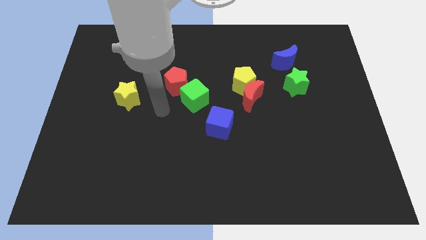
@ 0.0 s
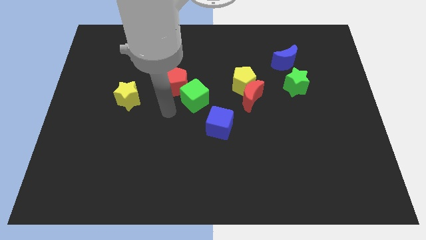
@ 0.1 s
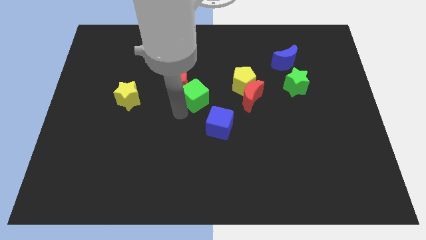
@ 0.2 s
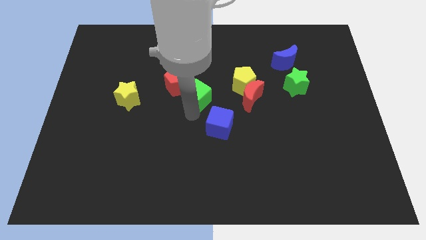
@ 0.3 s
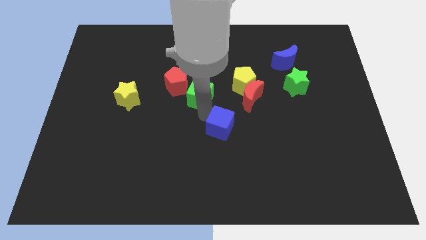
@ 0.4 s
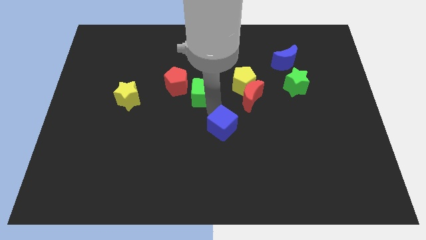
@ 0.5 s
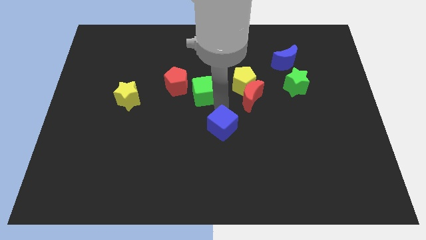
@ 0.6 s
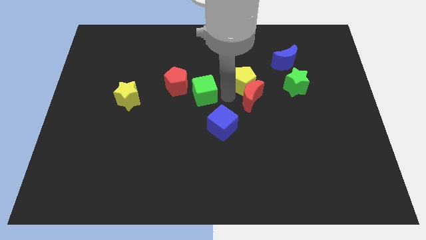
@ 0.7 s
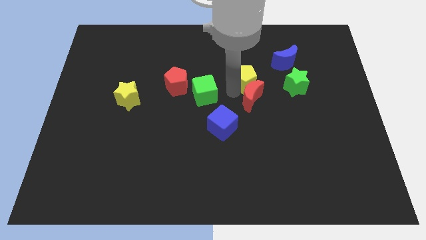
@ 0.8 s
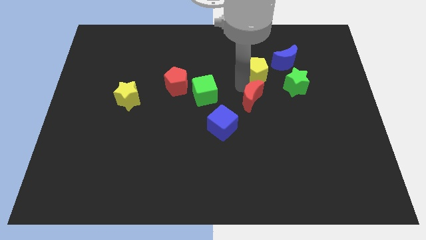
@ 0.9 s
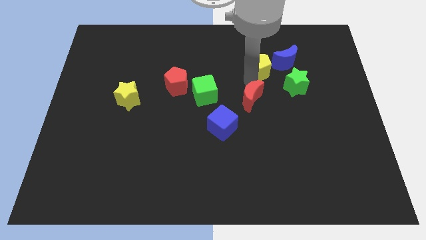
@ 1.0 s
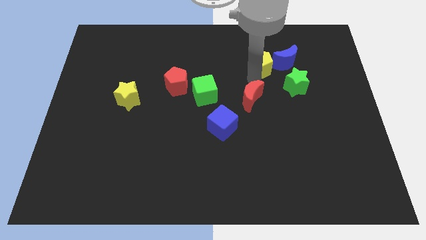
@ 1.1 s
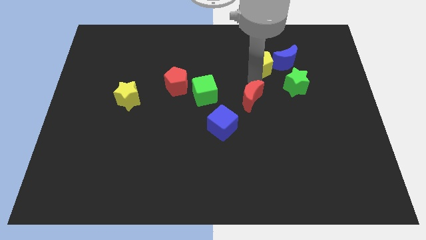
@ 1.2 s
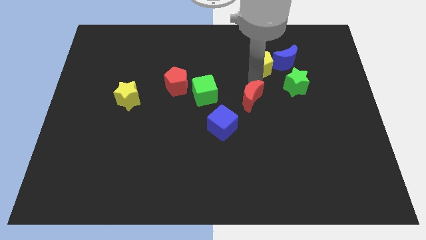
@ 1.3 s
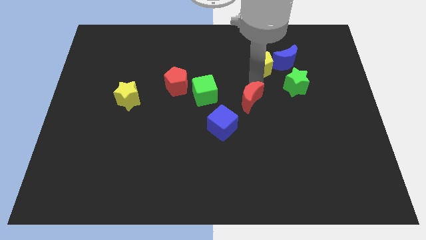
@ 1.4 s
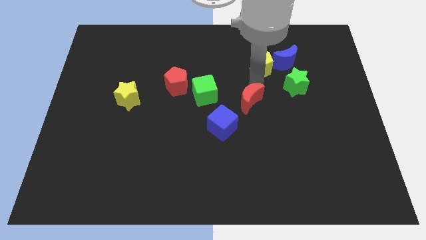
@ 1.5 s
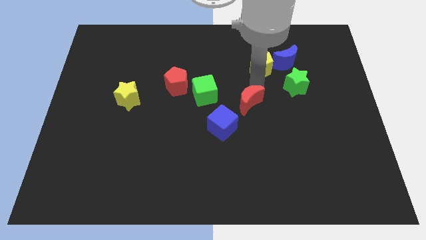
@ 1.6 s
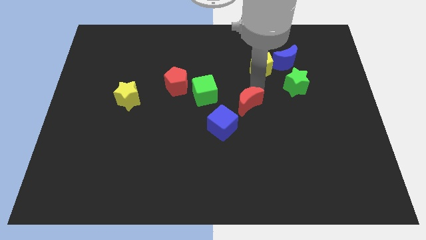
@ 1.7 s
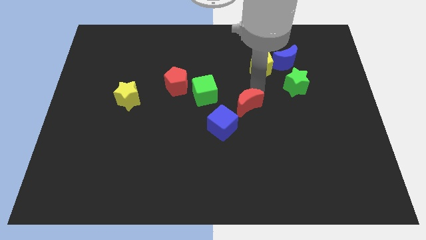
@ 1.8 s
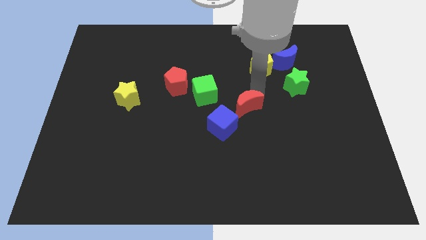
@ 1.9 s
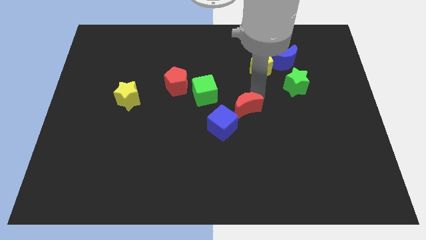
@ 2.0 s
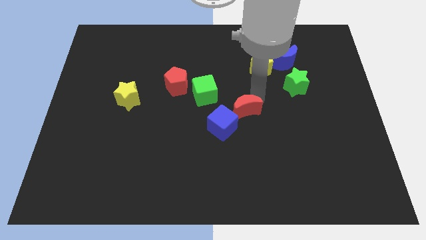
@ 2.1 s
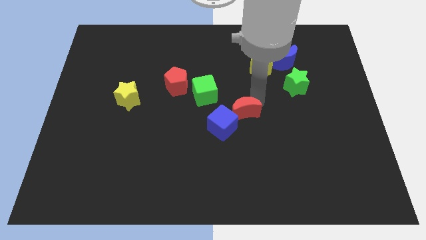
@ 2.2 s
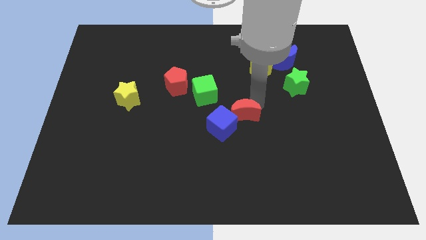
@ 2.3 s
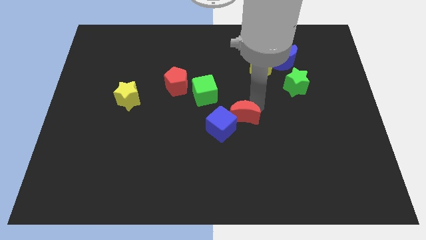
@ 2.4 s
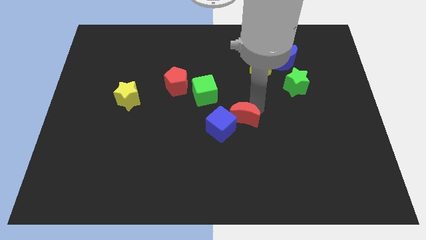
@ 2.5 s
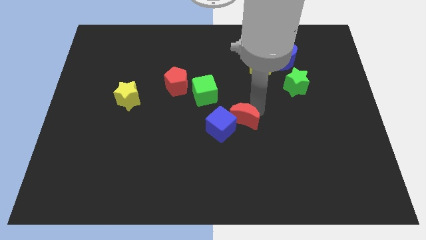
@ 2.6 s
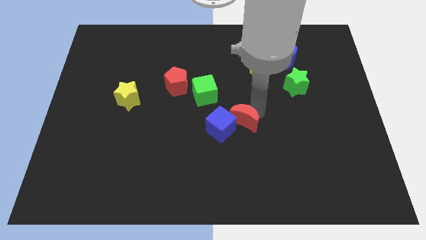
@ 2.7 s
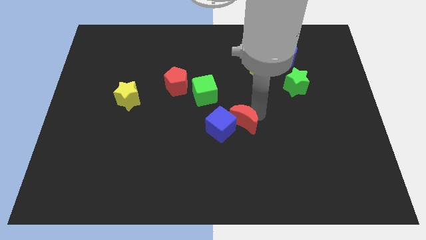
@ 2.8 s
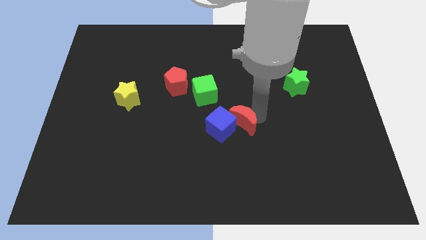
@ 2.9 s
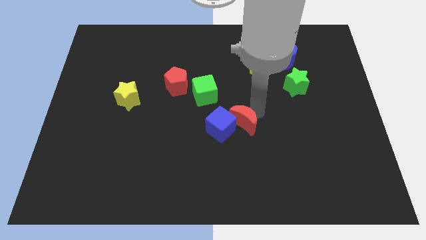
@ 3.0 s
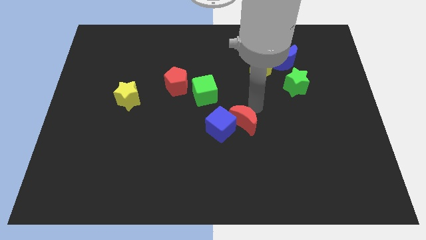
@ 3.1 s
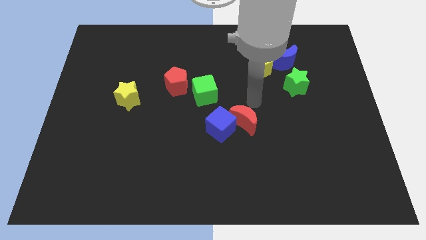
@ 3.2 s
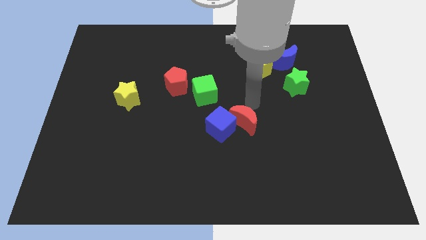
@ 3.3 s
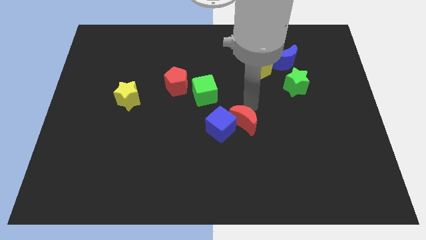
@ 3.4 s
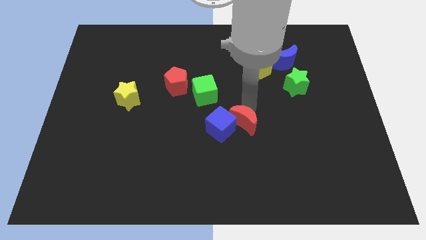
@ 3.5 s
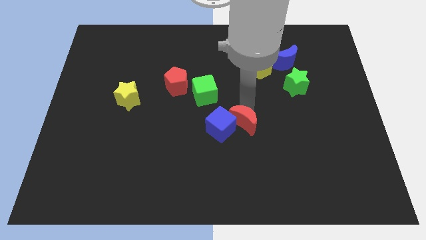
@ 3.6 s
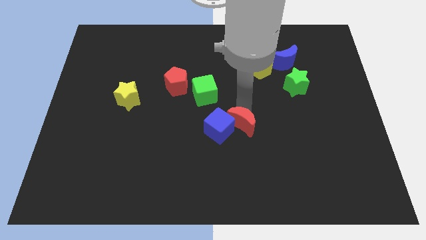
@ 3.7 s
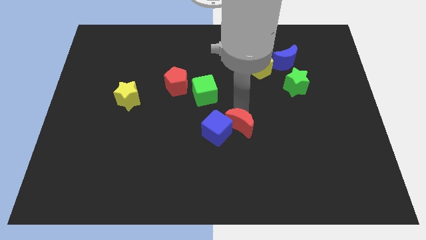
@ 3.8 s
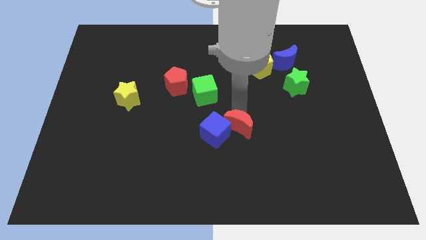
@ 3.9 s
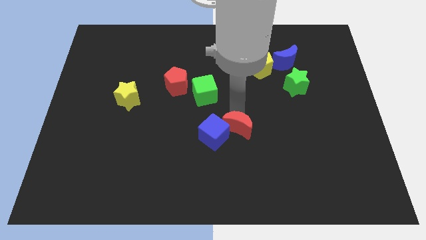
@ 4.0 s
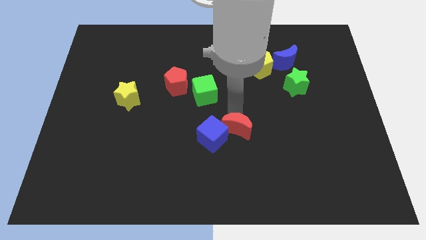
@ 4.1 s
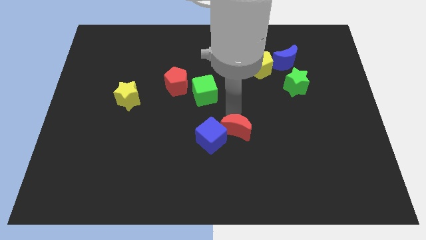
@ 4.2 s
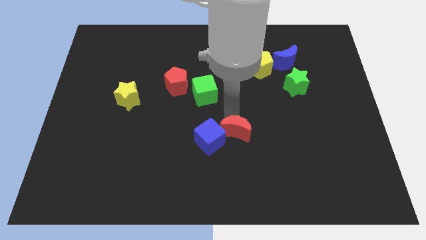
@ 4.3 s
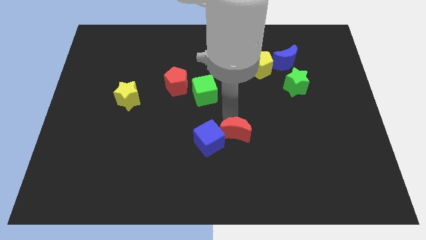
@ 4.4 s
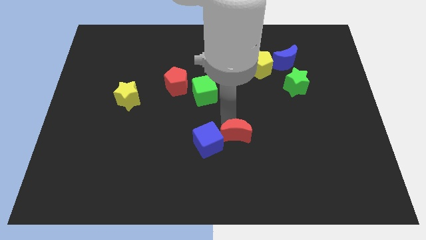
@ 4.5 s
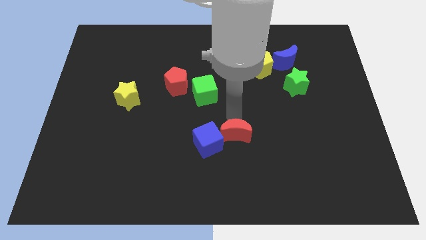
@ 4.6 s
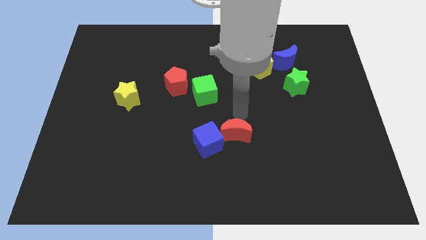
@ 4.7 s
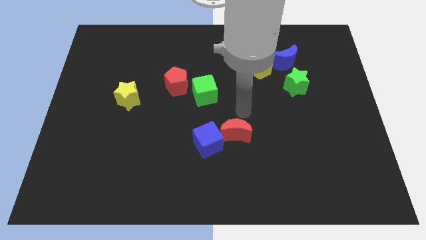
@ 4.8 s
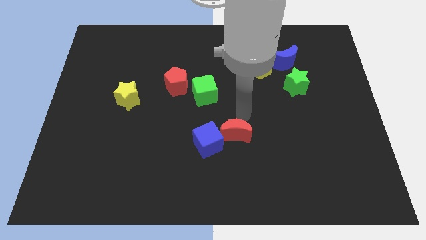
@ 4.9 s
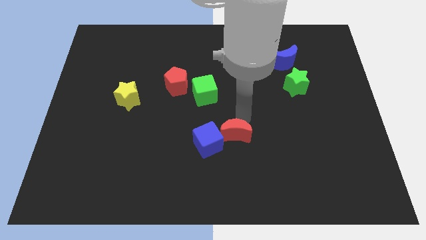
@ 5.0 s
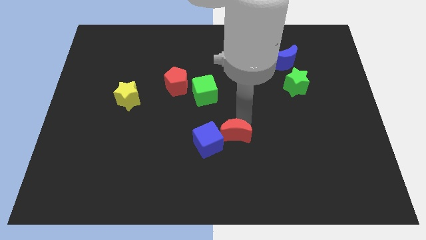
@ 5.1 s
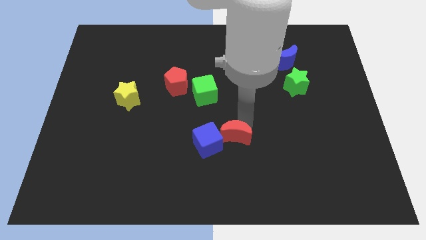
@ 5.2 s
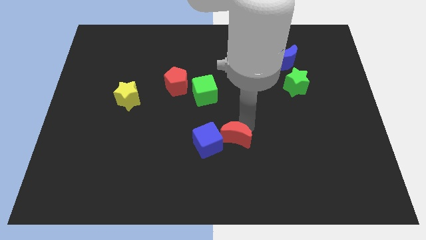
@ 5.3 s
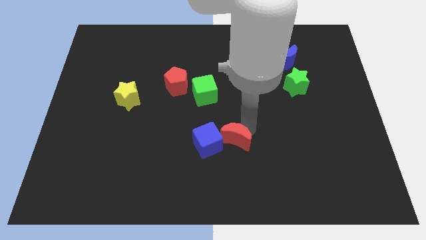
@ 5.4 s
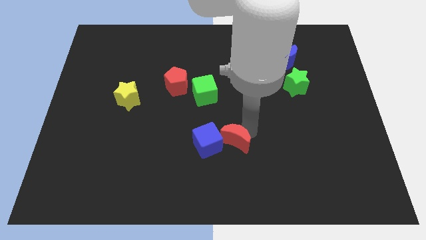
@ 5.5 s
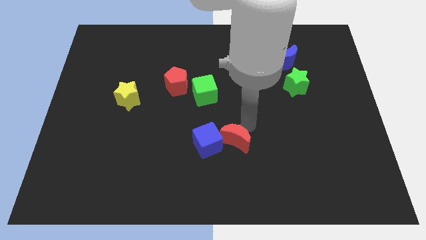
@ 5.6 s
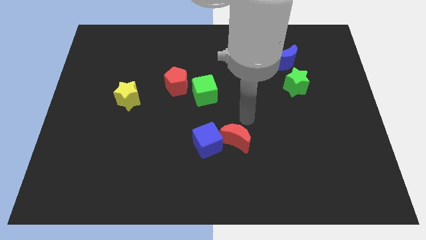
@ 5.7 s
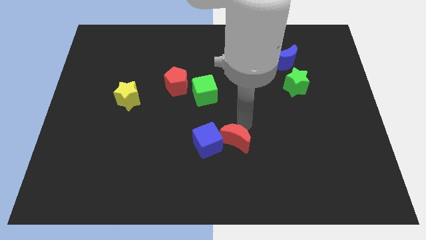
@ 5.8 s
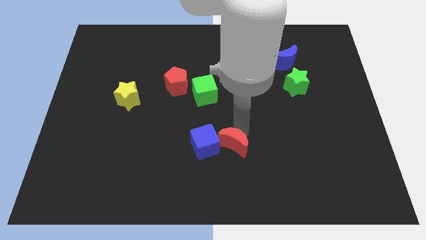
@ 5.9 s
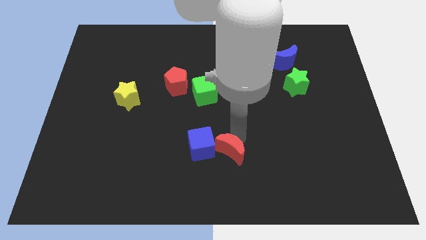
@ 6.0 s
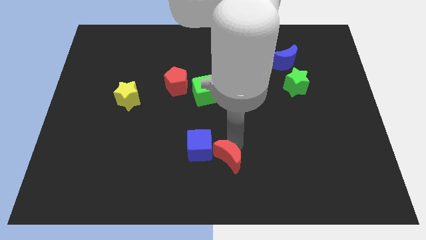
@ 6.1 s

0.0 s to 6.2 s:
move the red moon to the bottom side

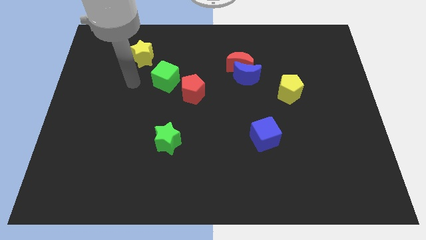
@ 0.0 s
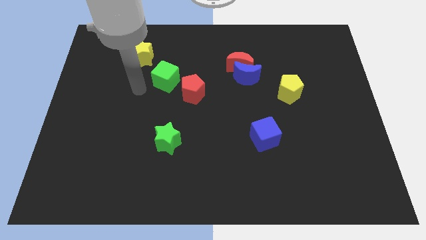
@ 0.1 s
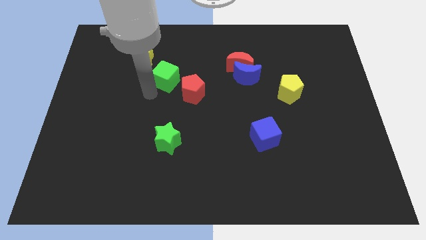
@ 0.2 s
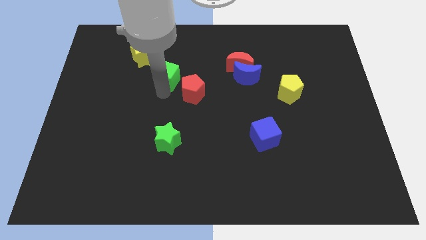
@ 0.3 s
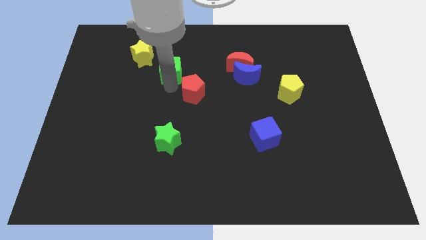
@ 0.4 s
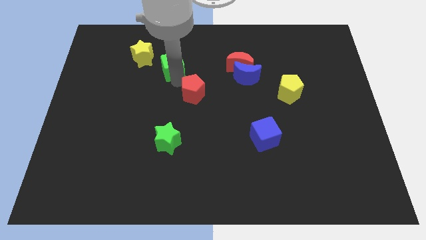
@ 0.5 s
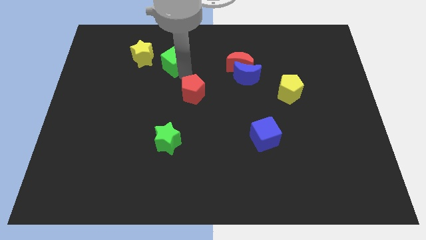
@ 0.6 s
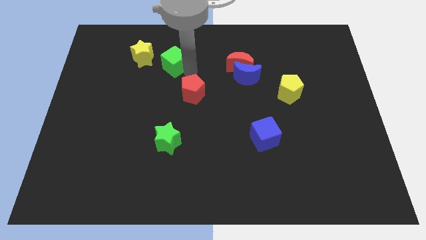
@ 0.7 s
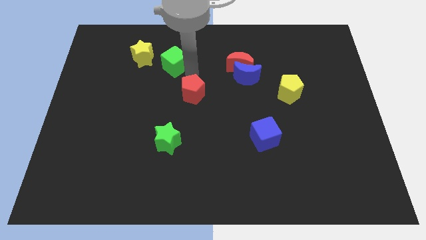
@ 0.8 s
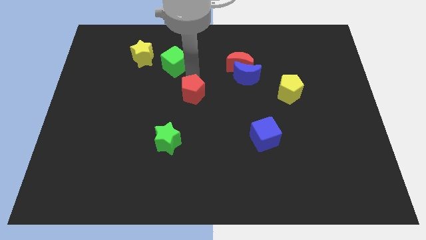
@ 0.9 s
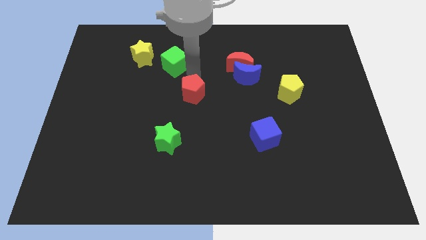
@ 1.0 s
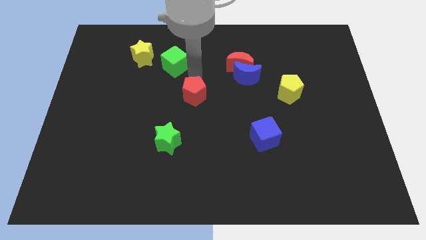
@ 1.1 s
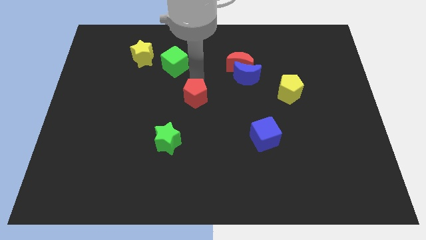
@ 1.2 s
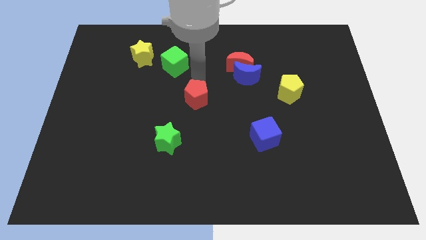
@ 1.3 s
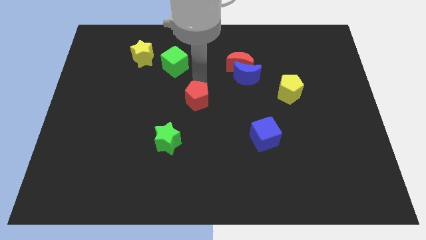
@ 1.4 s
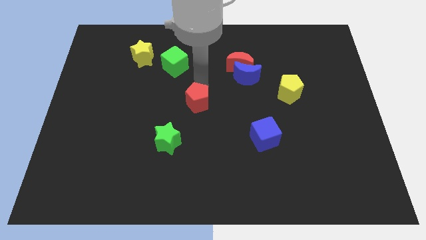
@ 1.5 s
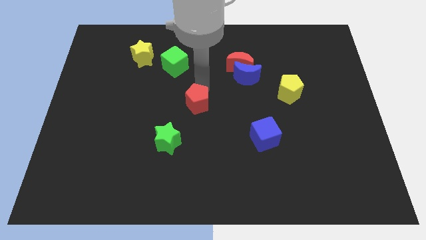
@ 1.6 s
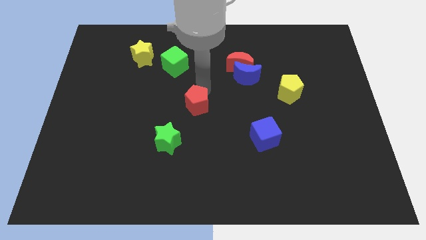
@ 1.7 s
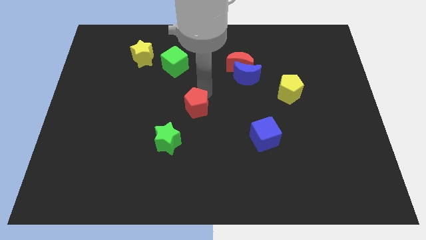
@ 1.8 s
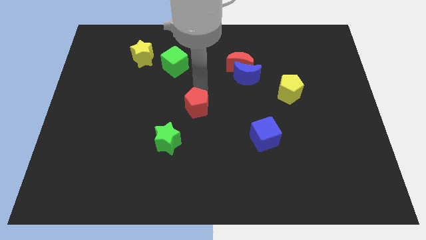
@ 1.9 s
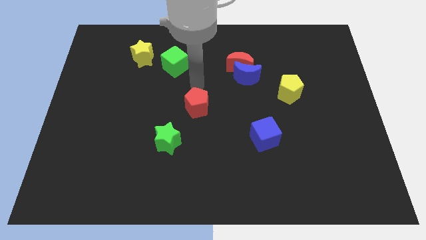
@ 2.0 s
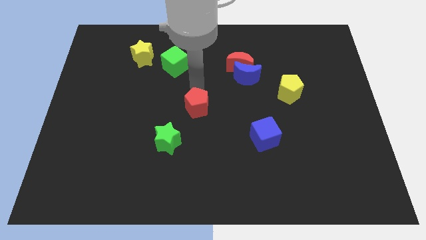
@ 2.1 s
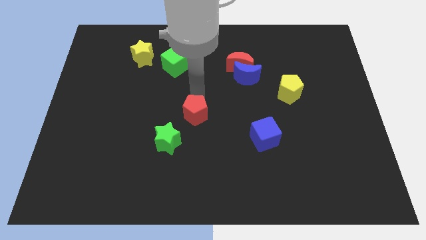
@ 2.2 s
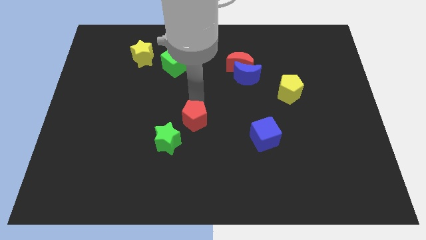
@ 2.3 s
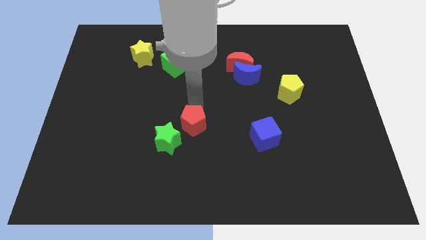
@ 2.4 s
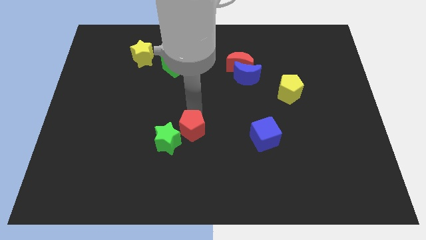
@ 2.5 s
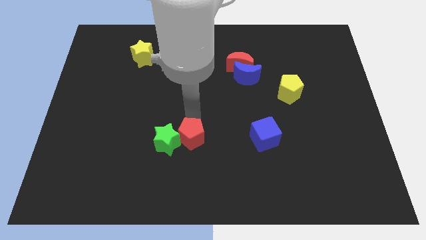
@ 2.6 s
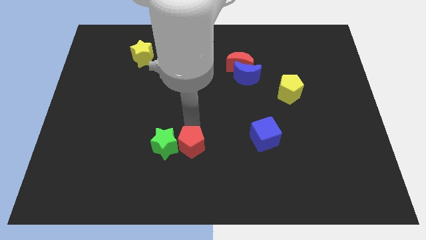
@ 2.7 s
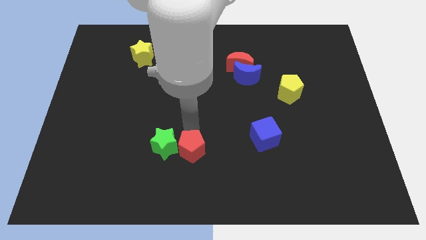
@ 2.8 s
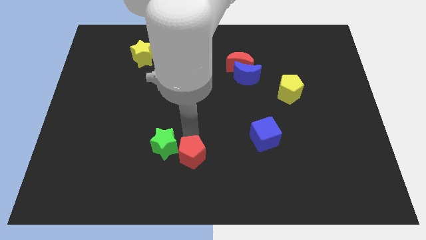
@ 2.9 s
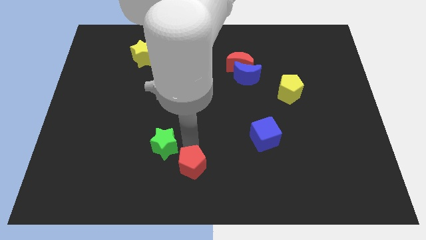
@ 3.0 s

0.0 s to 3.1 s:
push the red pentagon to the bottom
